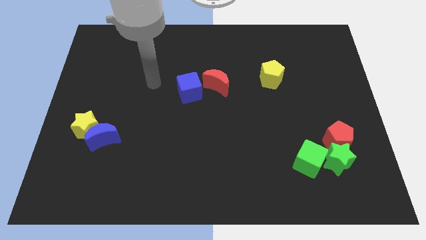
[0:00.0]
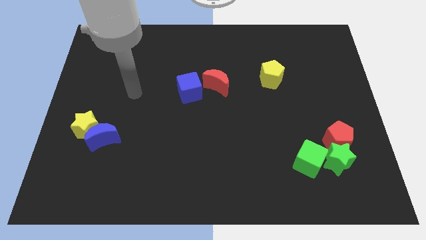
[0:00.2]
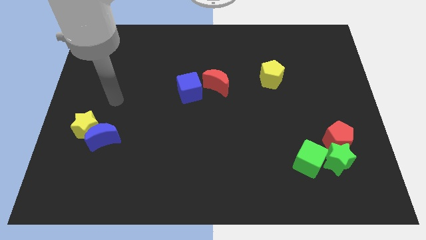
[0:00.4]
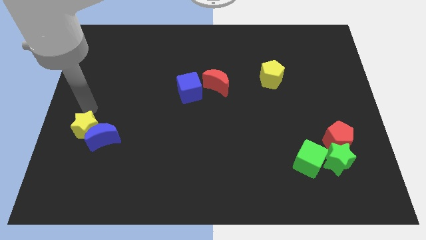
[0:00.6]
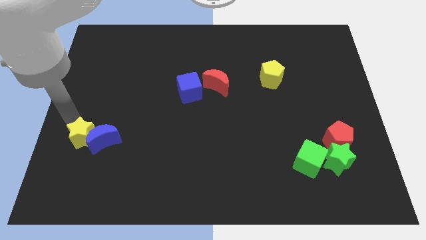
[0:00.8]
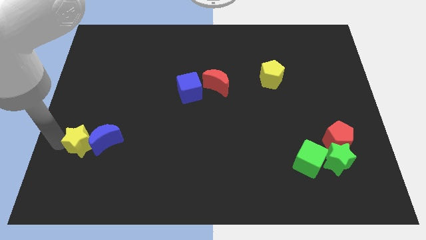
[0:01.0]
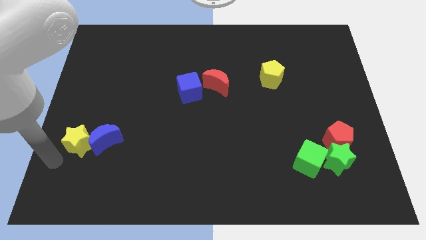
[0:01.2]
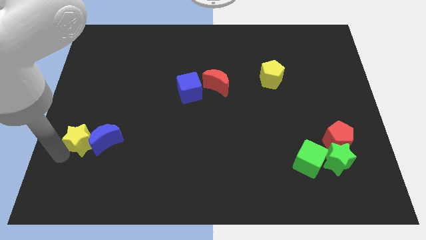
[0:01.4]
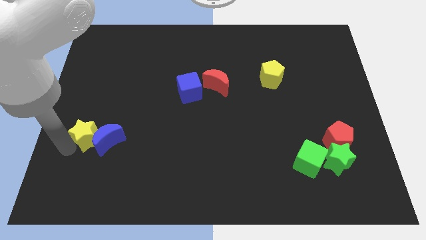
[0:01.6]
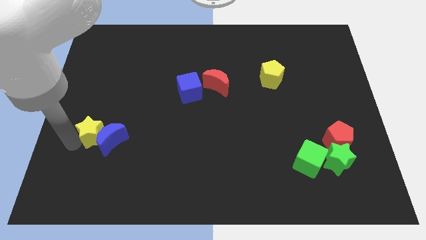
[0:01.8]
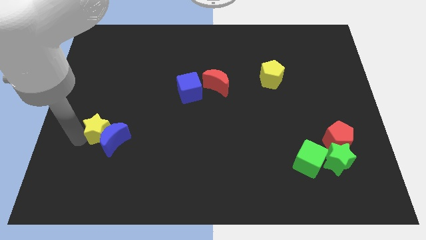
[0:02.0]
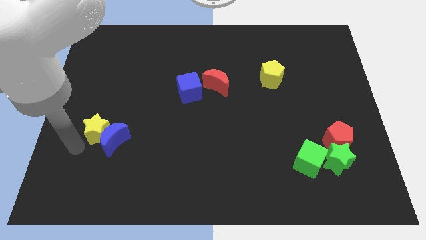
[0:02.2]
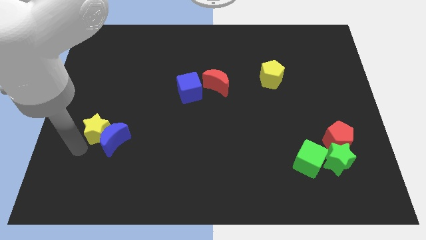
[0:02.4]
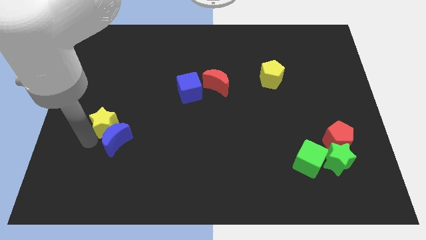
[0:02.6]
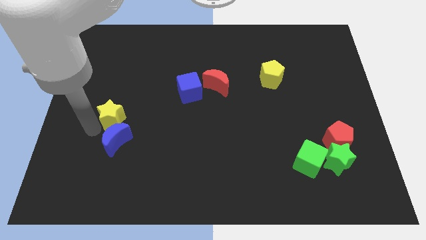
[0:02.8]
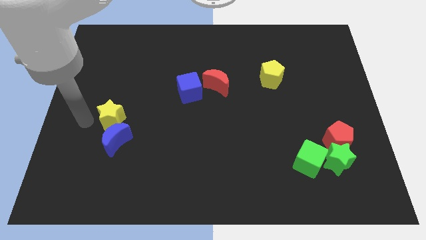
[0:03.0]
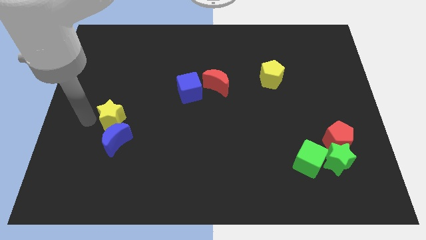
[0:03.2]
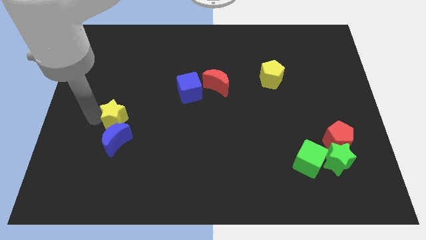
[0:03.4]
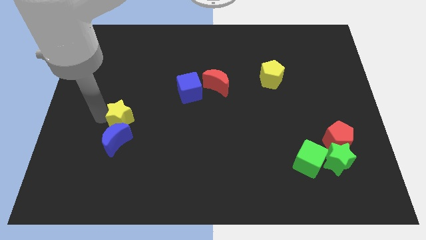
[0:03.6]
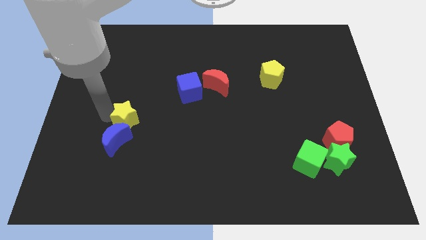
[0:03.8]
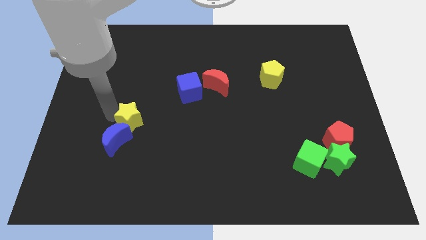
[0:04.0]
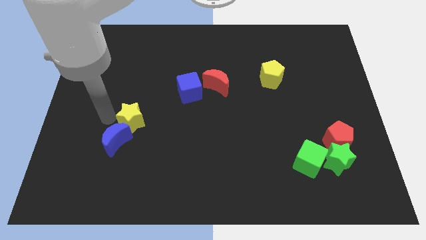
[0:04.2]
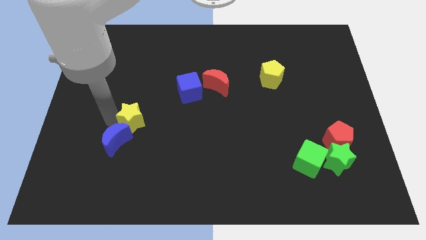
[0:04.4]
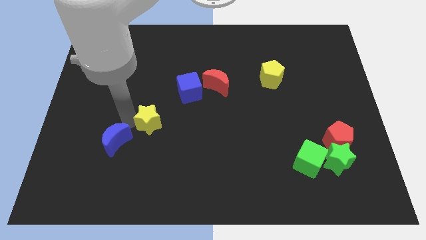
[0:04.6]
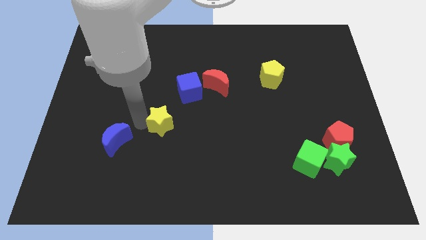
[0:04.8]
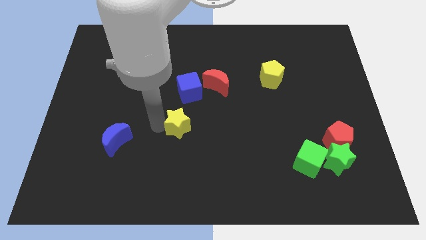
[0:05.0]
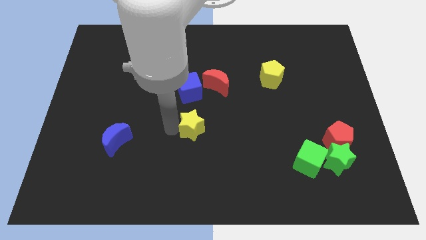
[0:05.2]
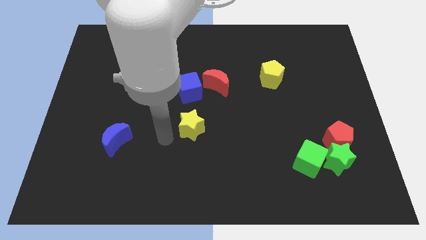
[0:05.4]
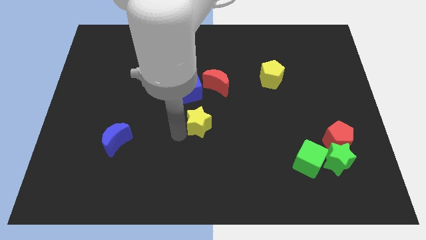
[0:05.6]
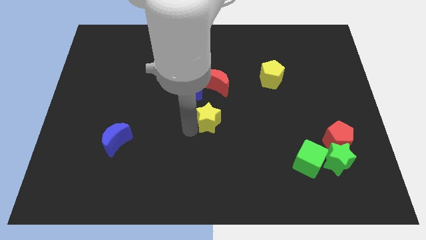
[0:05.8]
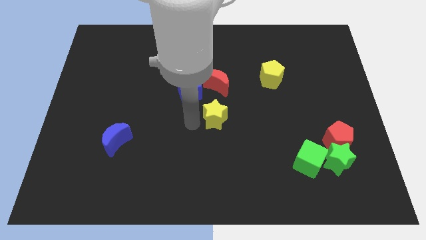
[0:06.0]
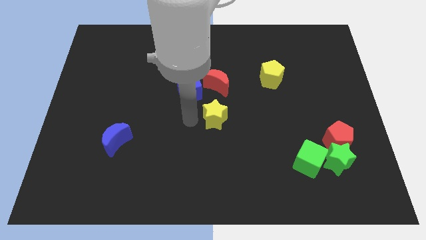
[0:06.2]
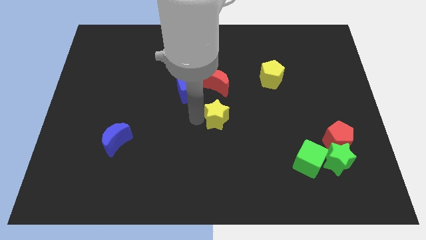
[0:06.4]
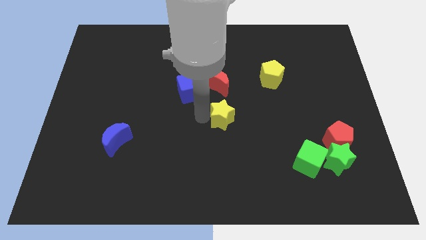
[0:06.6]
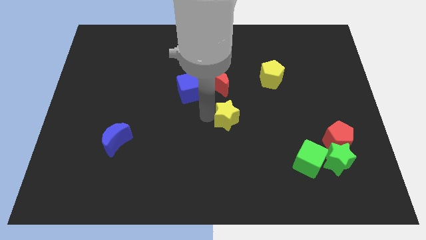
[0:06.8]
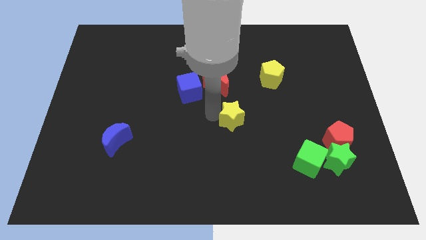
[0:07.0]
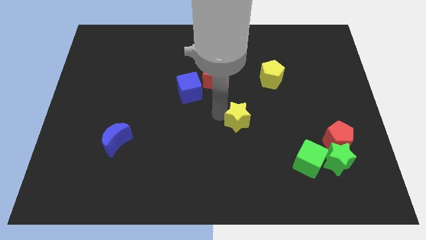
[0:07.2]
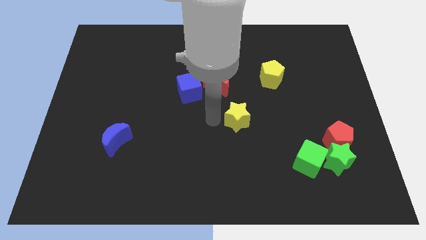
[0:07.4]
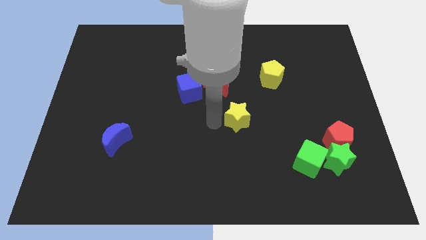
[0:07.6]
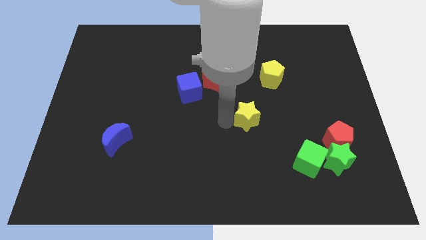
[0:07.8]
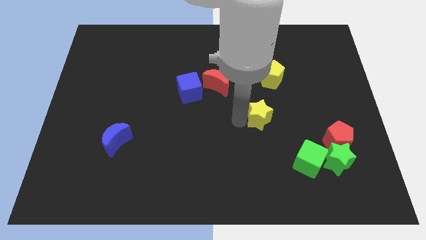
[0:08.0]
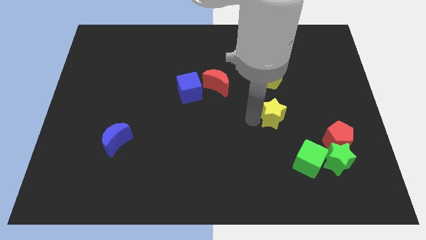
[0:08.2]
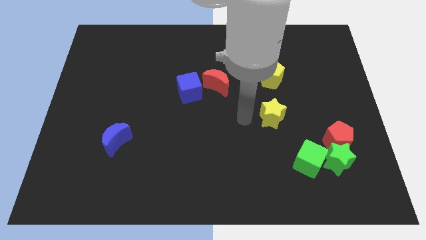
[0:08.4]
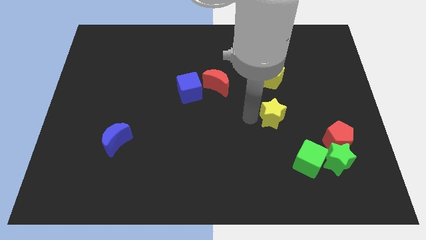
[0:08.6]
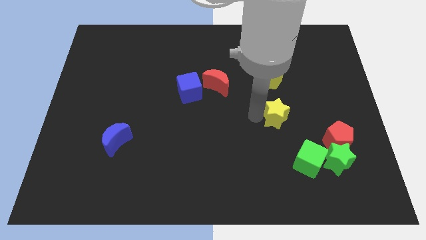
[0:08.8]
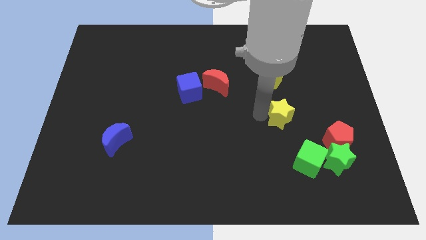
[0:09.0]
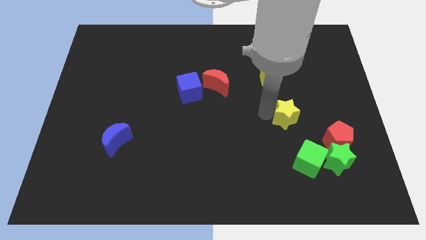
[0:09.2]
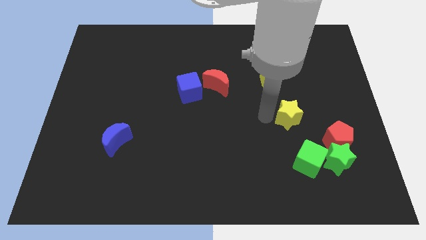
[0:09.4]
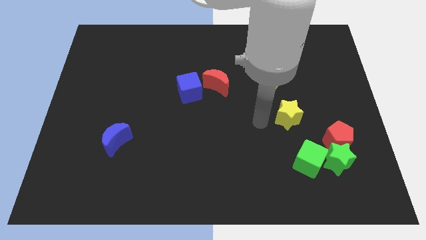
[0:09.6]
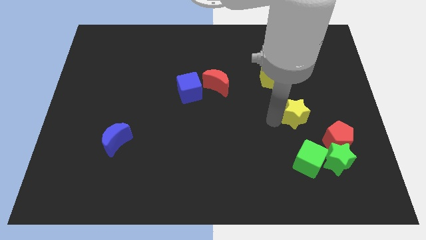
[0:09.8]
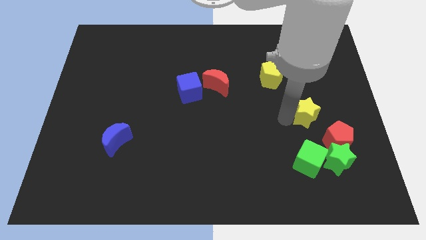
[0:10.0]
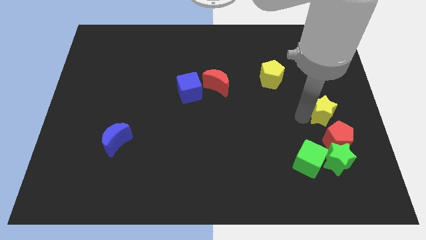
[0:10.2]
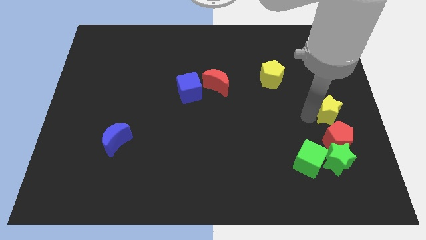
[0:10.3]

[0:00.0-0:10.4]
push the yellow star to the right side of the board
